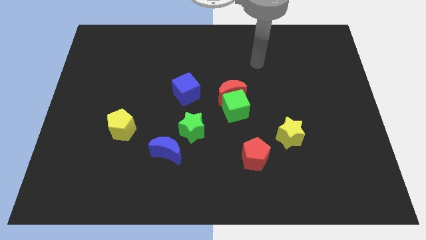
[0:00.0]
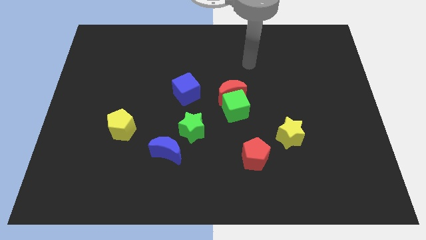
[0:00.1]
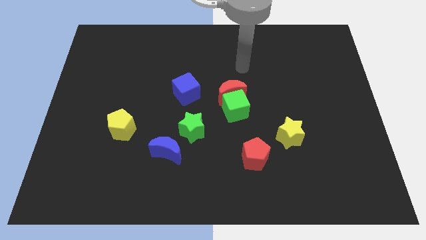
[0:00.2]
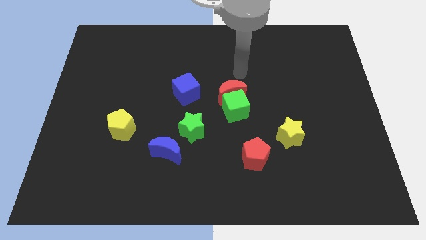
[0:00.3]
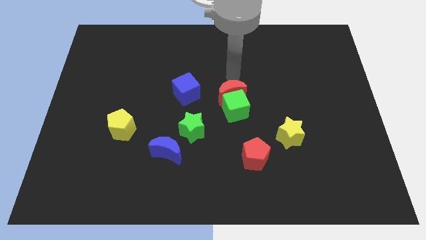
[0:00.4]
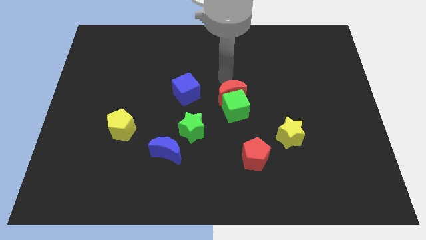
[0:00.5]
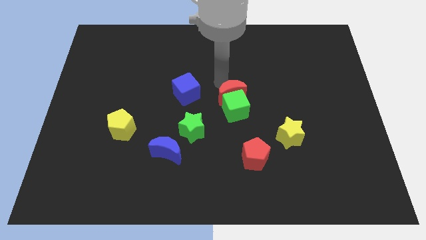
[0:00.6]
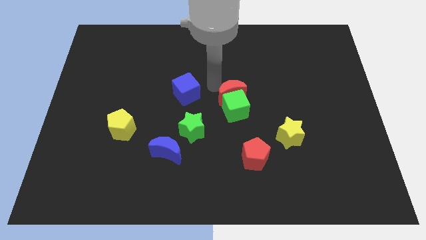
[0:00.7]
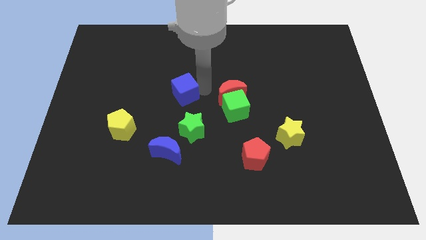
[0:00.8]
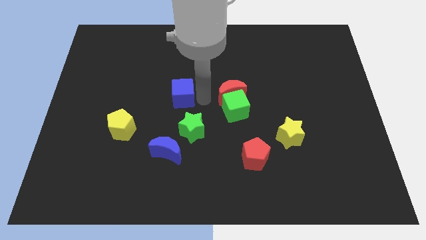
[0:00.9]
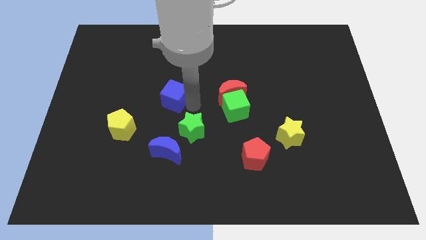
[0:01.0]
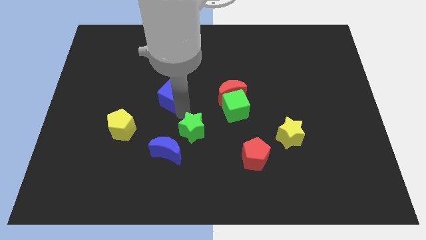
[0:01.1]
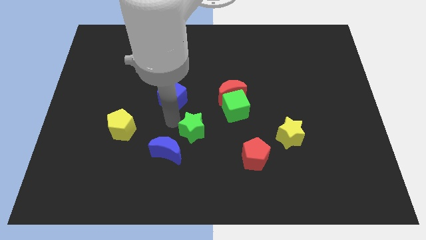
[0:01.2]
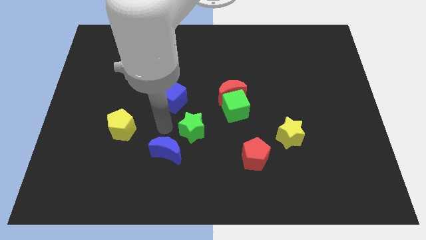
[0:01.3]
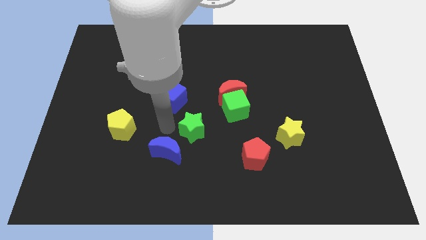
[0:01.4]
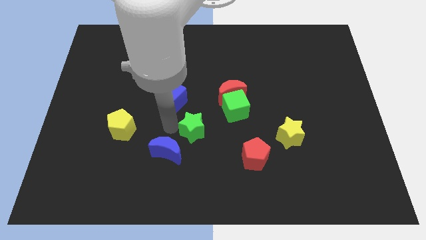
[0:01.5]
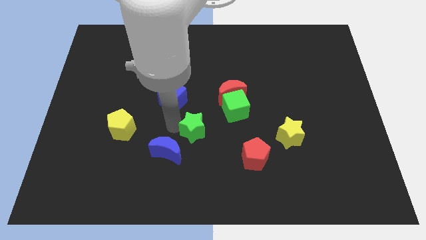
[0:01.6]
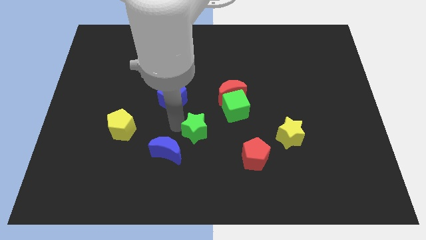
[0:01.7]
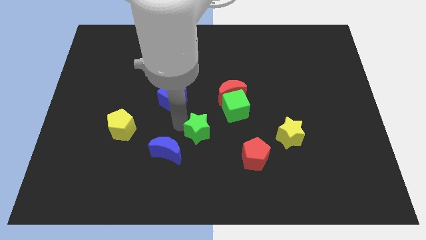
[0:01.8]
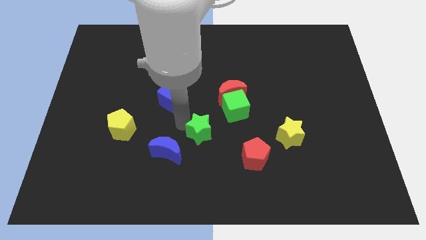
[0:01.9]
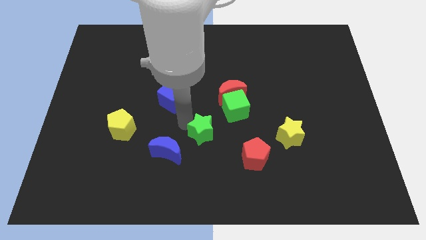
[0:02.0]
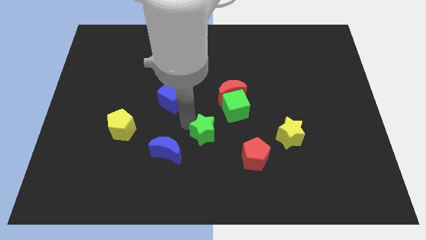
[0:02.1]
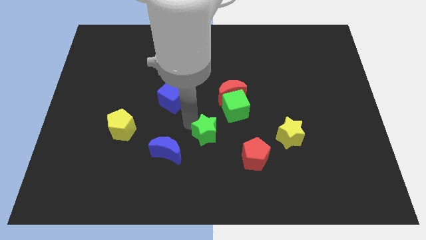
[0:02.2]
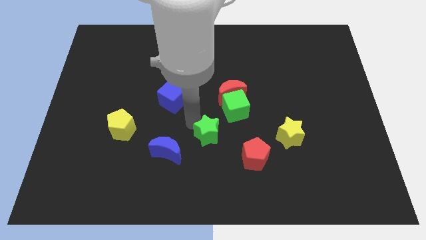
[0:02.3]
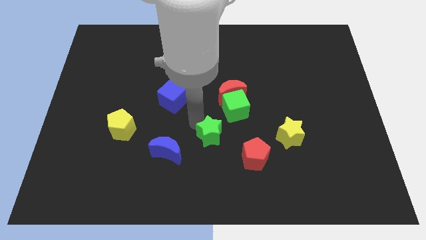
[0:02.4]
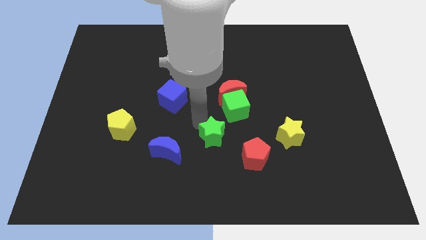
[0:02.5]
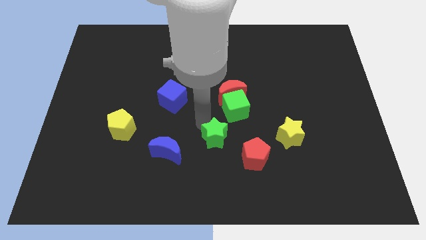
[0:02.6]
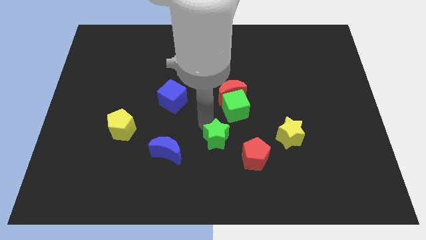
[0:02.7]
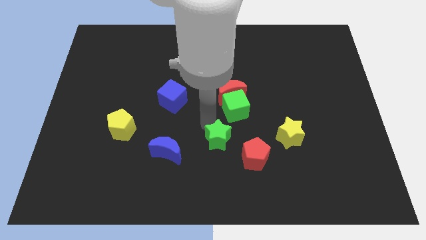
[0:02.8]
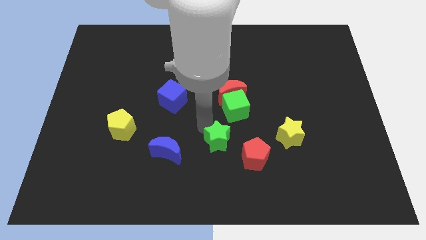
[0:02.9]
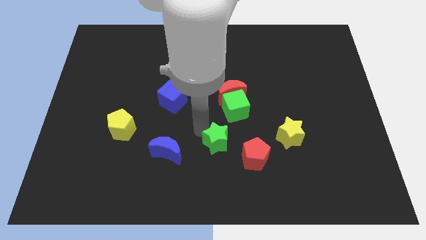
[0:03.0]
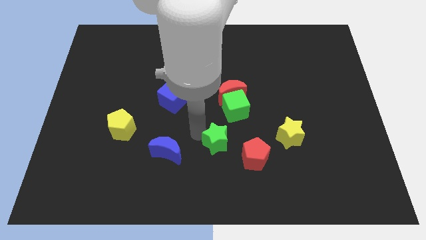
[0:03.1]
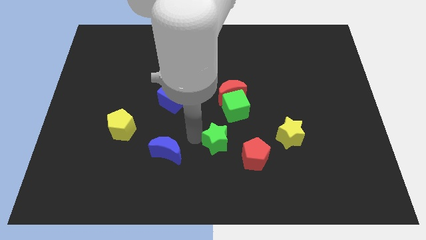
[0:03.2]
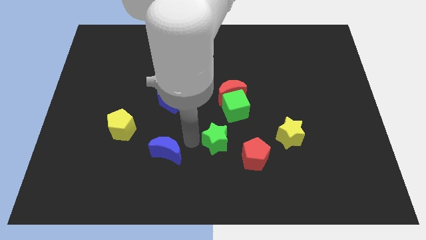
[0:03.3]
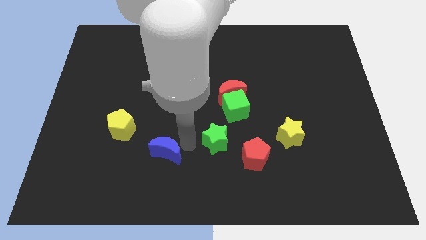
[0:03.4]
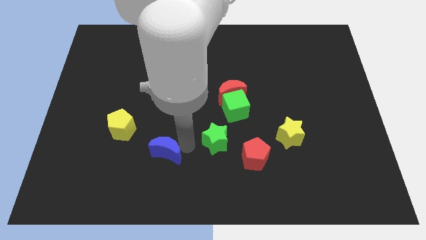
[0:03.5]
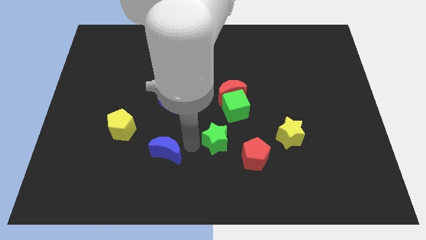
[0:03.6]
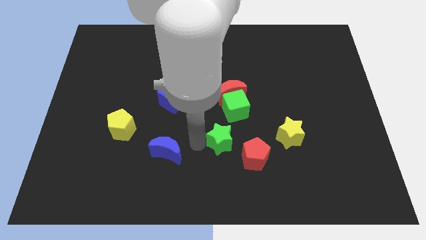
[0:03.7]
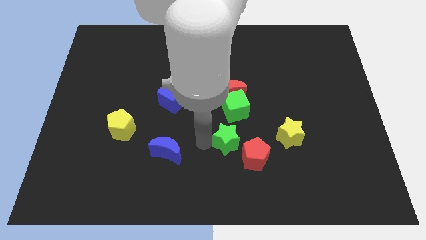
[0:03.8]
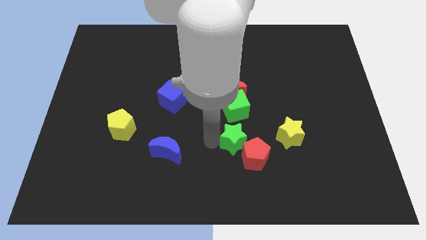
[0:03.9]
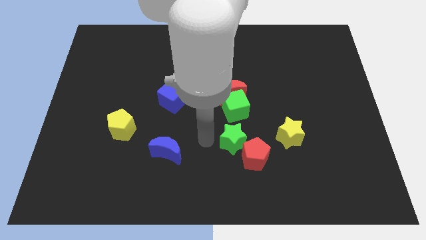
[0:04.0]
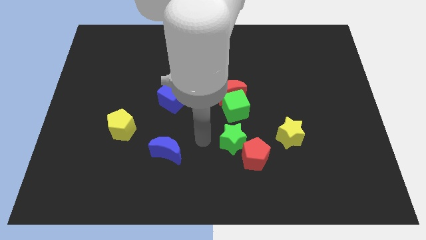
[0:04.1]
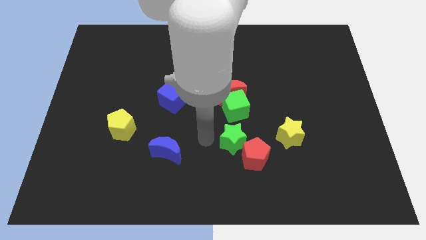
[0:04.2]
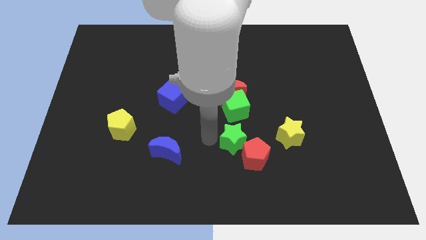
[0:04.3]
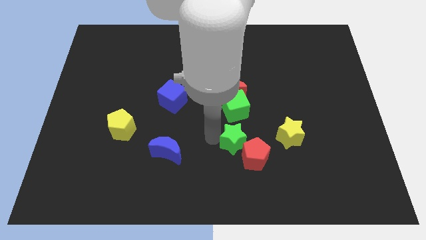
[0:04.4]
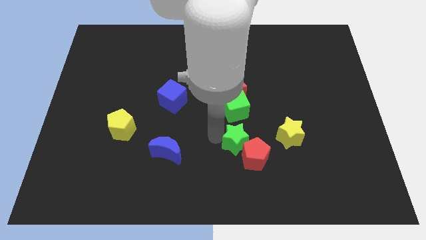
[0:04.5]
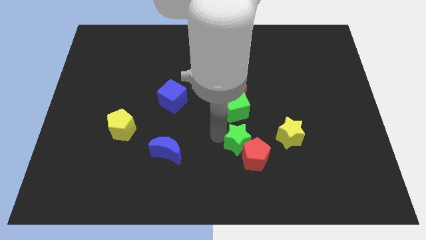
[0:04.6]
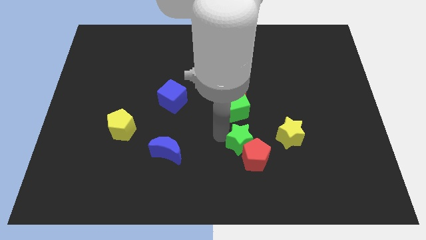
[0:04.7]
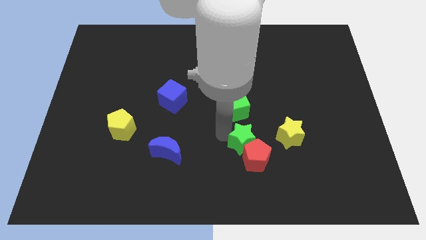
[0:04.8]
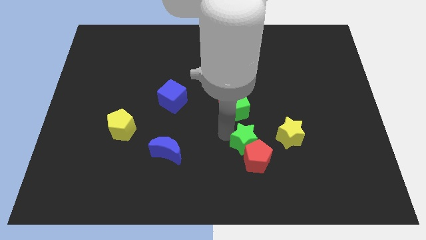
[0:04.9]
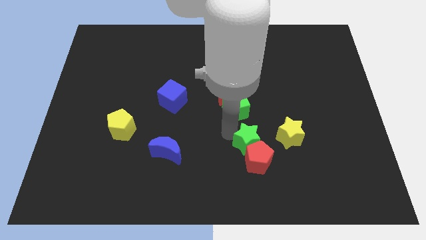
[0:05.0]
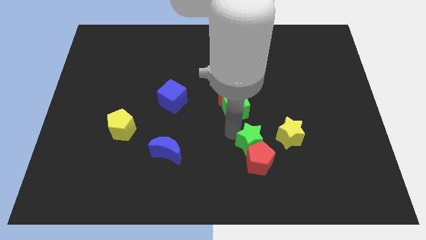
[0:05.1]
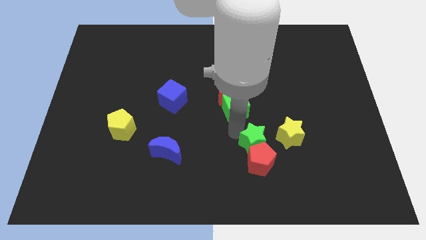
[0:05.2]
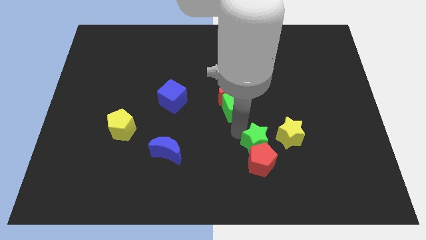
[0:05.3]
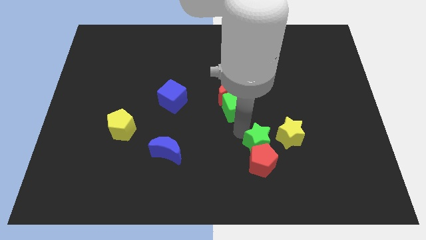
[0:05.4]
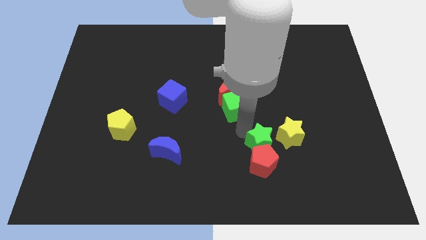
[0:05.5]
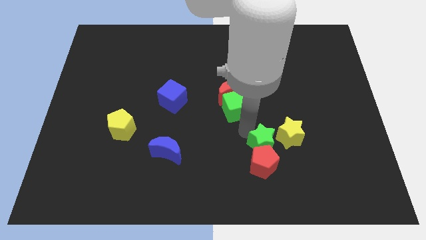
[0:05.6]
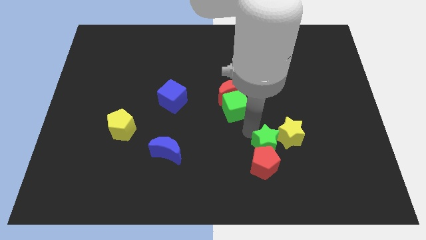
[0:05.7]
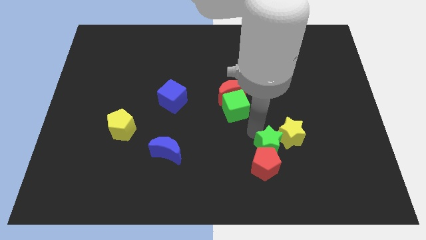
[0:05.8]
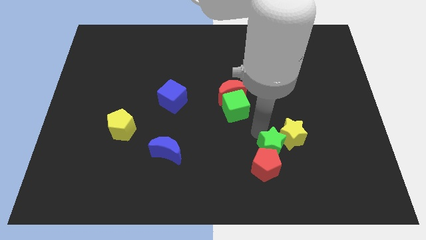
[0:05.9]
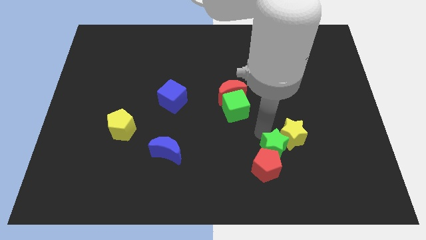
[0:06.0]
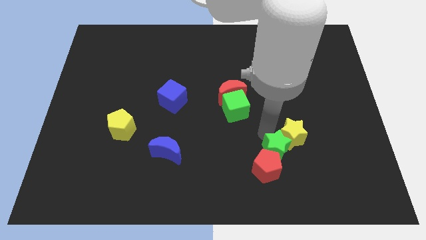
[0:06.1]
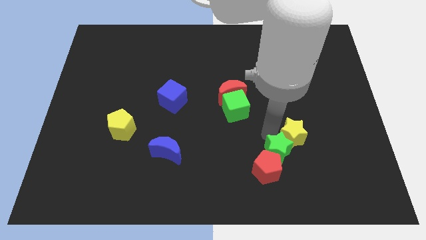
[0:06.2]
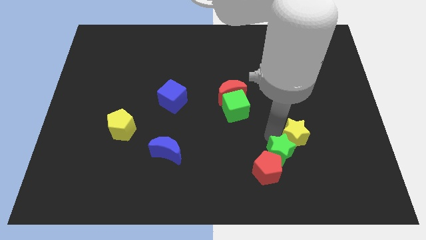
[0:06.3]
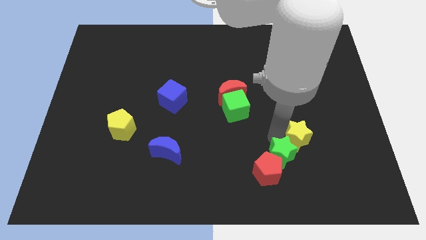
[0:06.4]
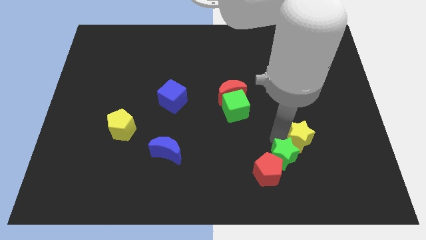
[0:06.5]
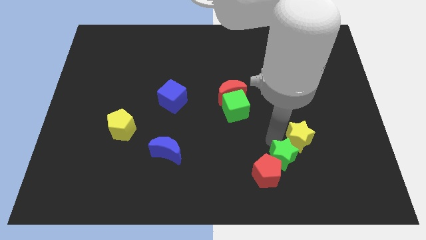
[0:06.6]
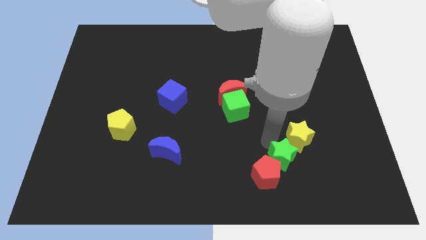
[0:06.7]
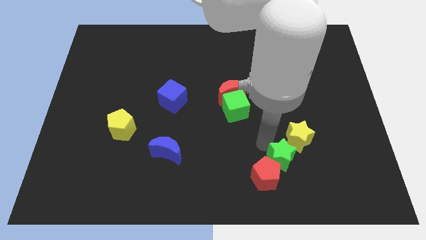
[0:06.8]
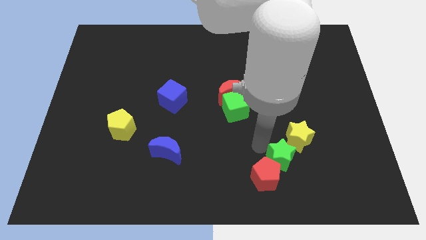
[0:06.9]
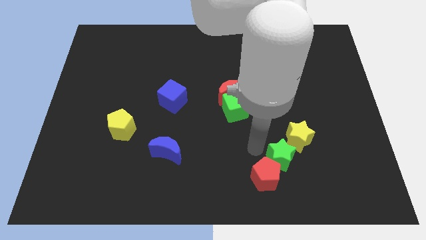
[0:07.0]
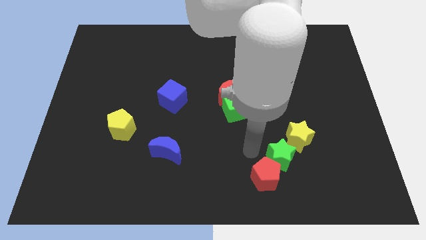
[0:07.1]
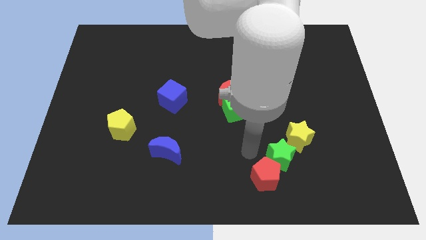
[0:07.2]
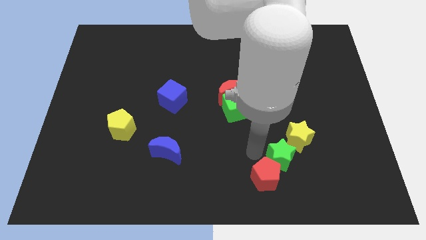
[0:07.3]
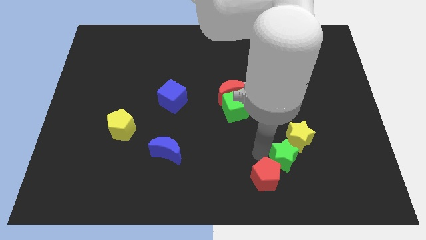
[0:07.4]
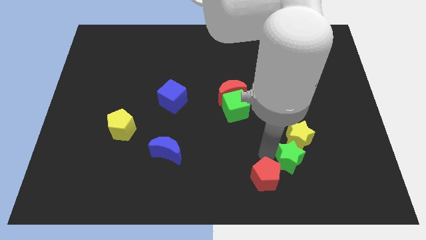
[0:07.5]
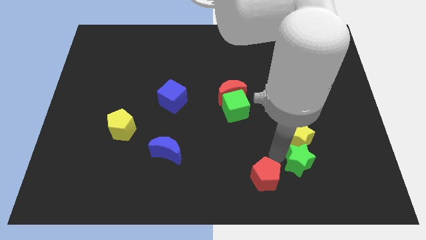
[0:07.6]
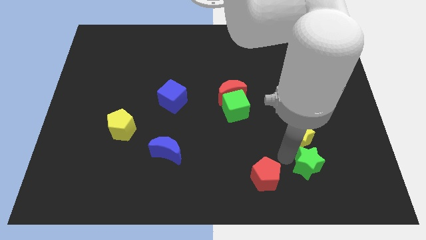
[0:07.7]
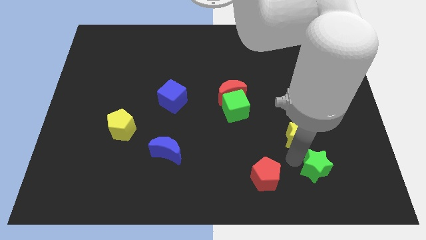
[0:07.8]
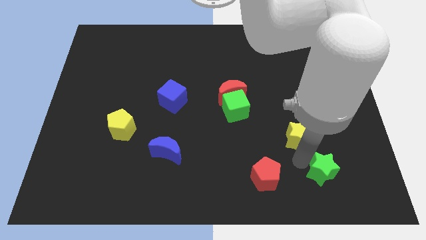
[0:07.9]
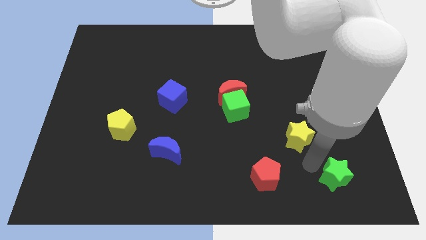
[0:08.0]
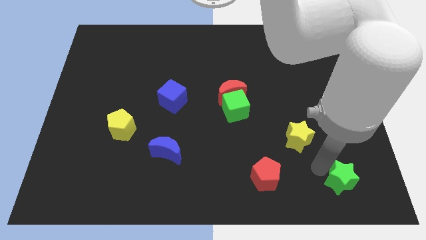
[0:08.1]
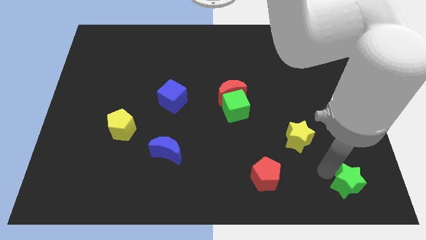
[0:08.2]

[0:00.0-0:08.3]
slide the green star to the bottom right corner
